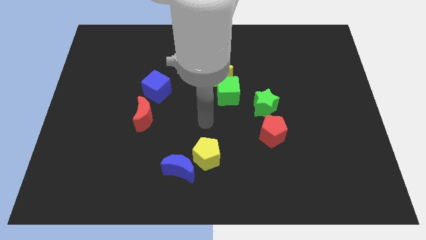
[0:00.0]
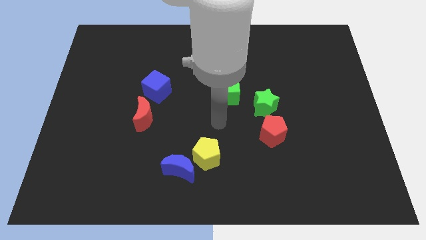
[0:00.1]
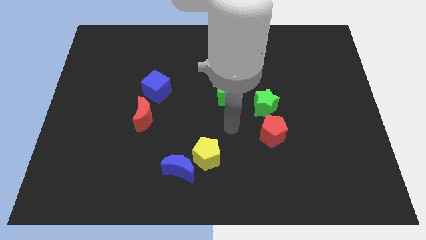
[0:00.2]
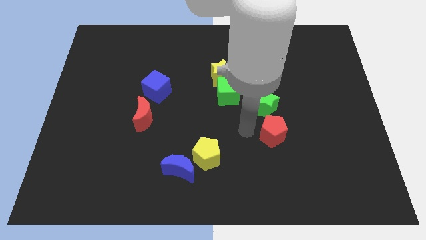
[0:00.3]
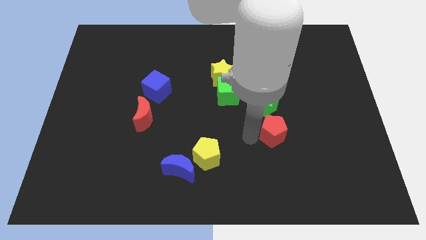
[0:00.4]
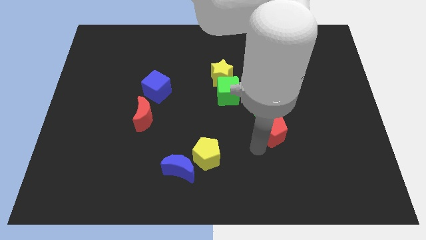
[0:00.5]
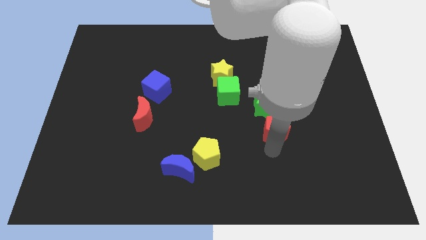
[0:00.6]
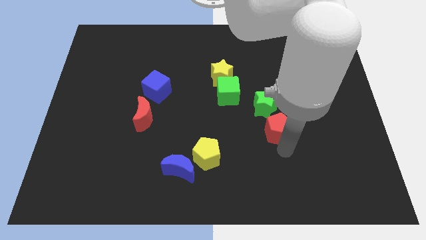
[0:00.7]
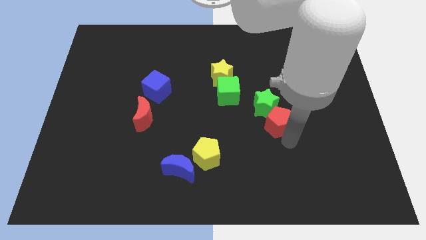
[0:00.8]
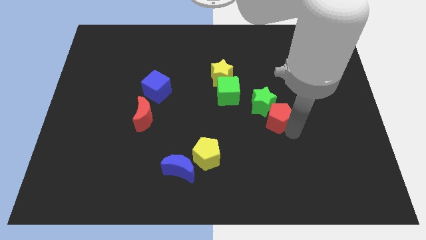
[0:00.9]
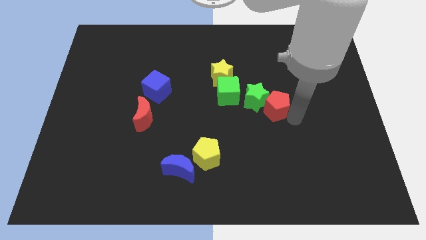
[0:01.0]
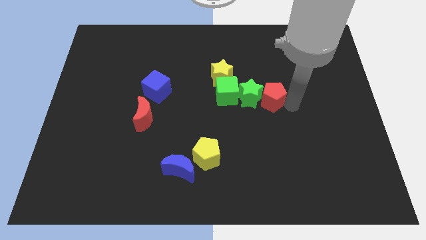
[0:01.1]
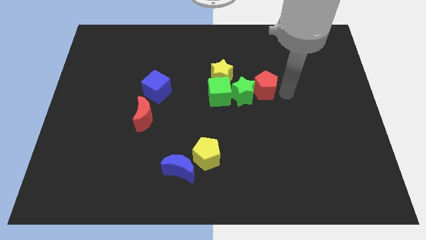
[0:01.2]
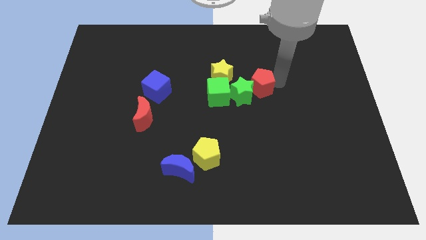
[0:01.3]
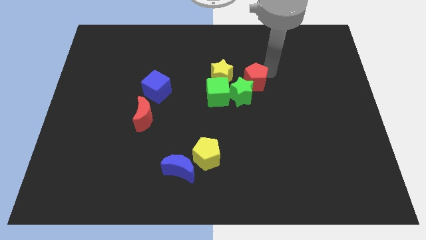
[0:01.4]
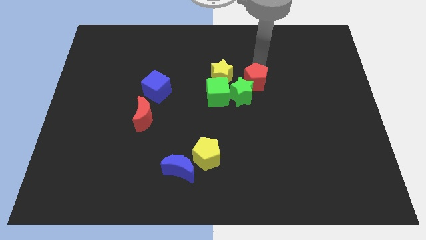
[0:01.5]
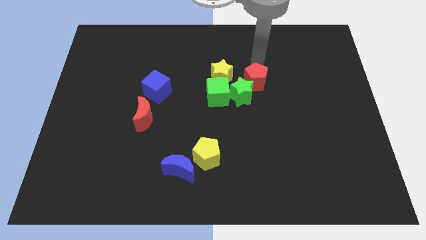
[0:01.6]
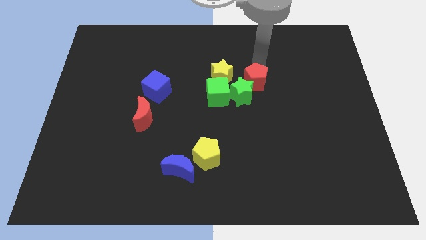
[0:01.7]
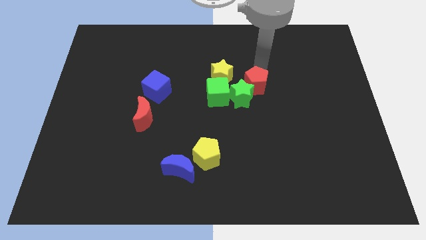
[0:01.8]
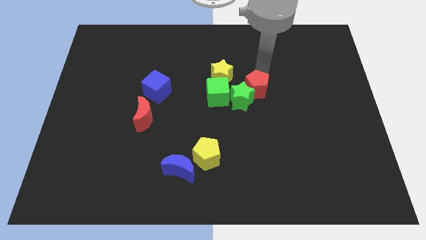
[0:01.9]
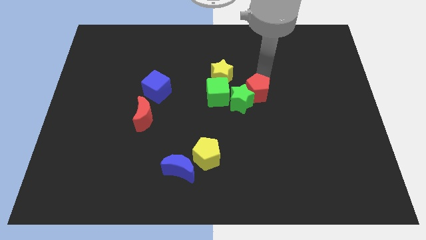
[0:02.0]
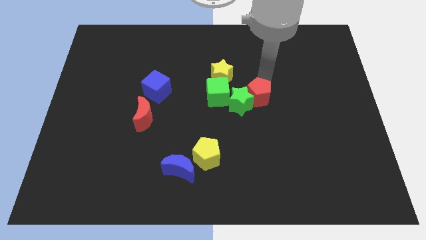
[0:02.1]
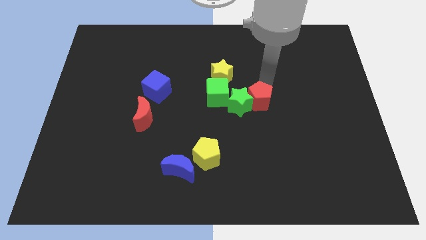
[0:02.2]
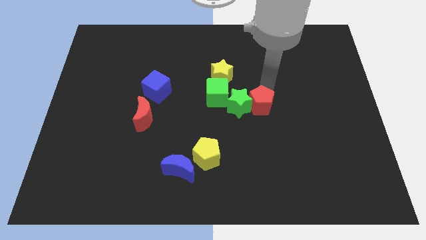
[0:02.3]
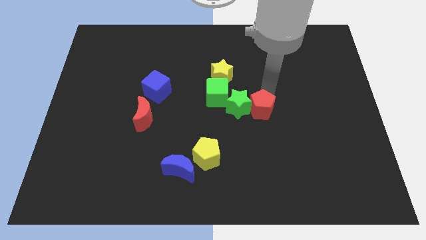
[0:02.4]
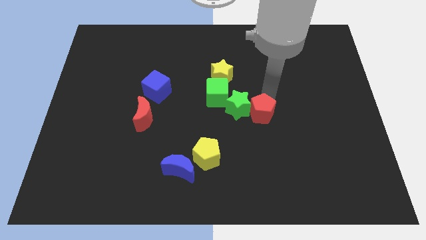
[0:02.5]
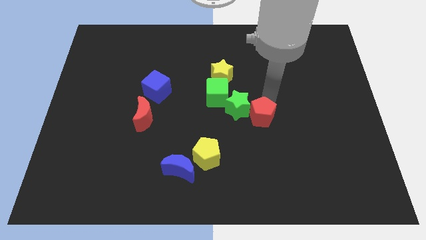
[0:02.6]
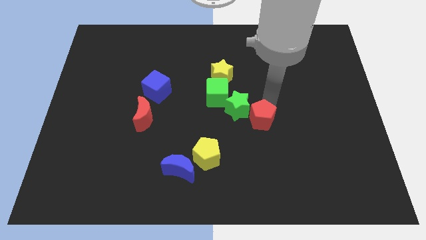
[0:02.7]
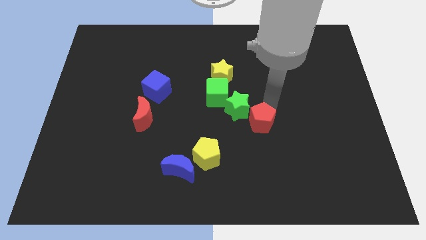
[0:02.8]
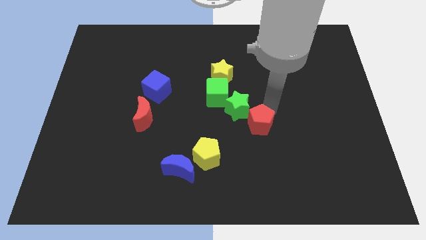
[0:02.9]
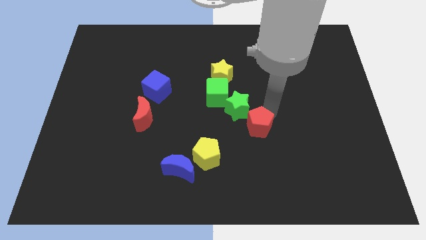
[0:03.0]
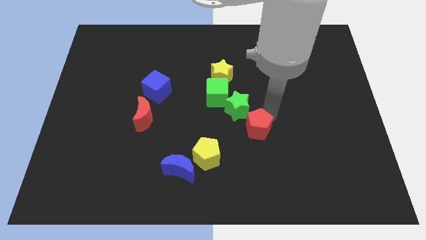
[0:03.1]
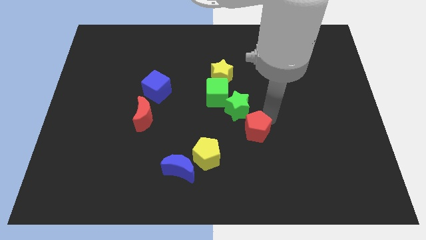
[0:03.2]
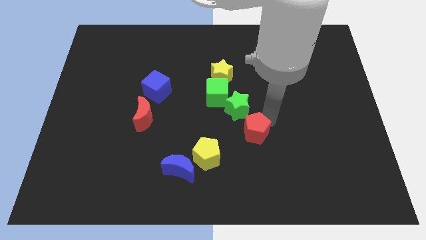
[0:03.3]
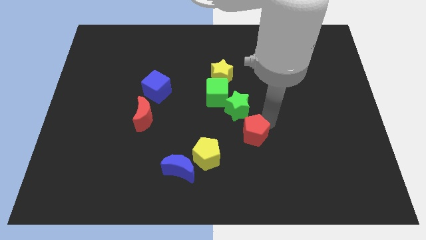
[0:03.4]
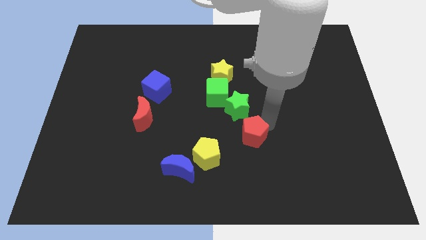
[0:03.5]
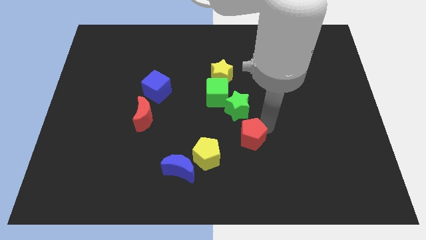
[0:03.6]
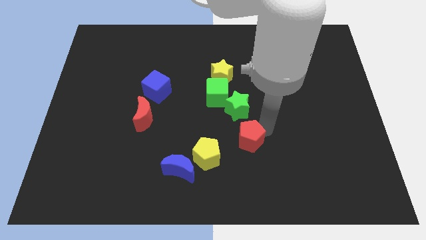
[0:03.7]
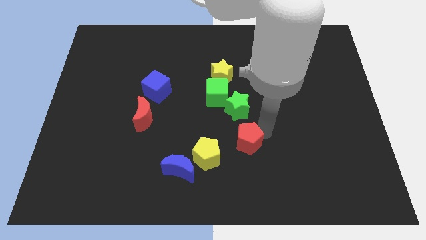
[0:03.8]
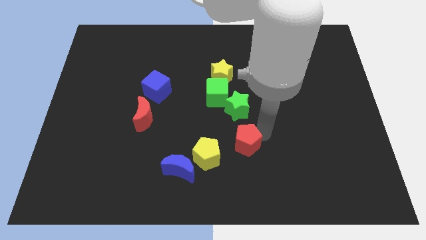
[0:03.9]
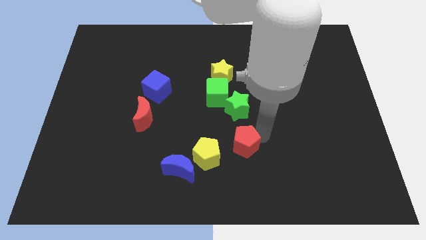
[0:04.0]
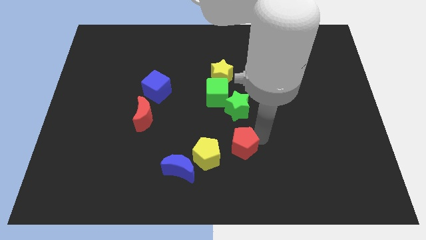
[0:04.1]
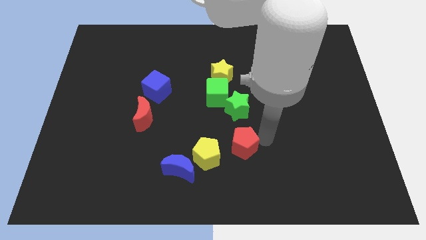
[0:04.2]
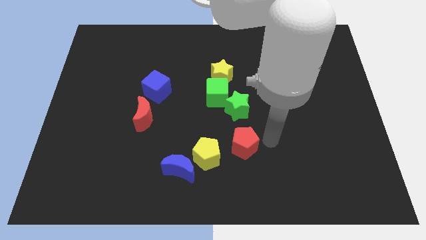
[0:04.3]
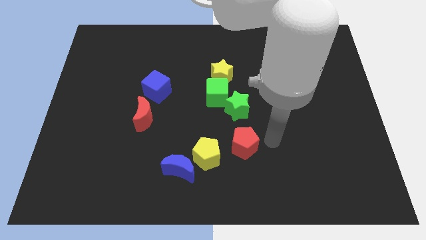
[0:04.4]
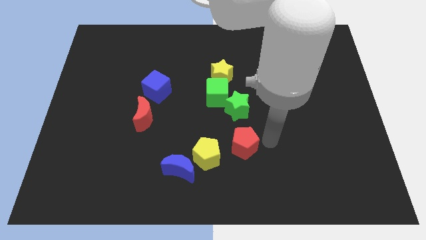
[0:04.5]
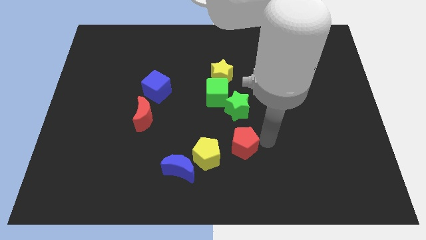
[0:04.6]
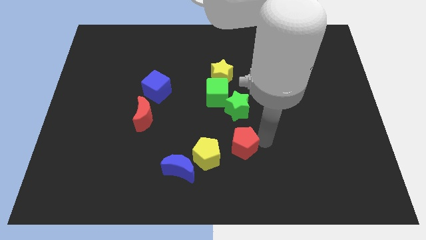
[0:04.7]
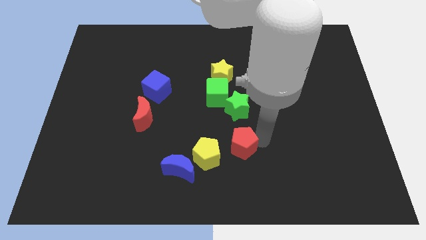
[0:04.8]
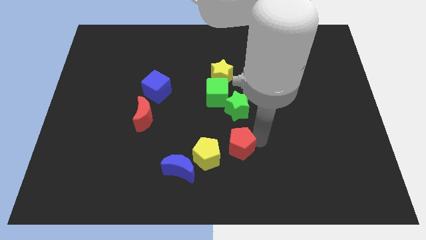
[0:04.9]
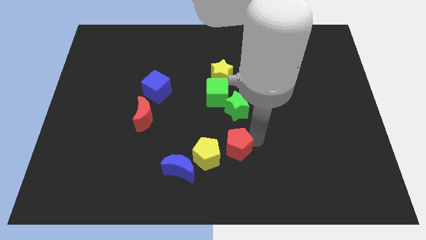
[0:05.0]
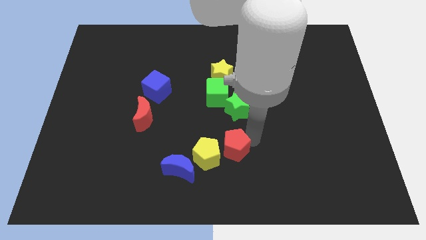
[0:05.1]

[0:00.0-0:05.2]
slide the red pentagon next to the yellow pentagon

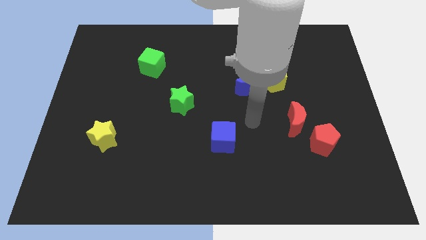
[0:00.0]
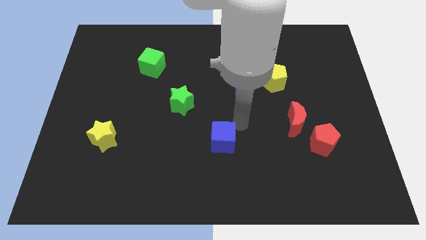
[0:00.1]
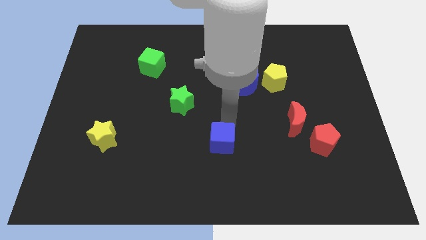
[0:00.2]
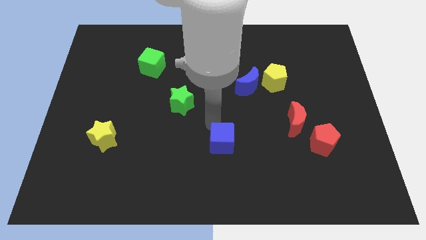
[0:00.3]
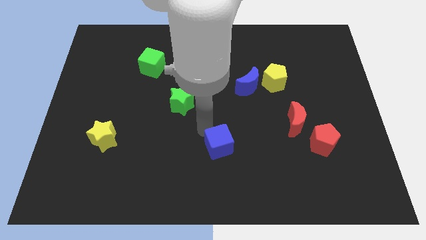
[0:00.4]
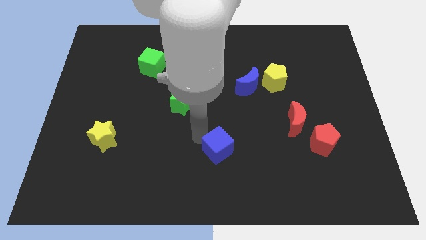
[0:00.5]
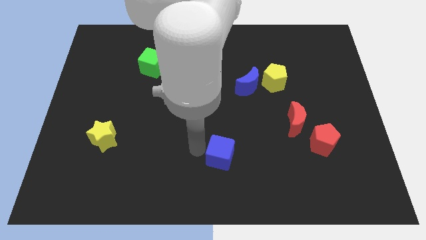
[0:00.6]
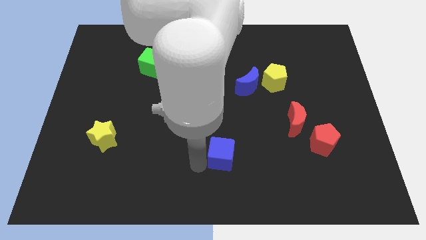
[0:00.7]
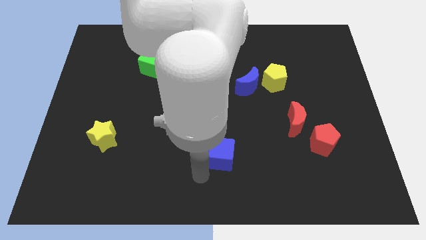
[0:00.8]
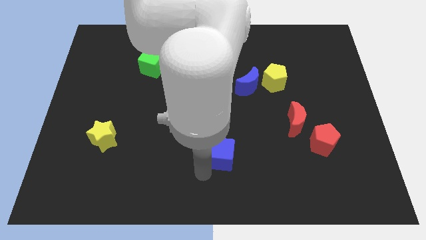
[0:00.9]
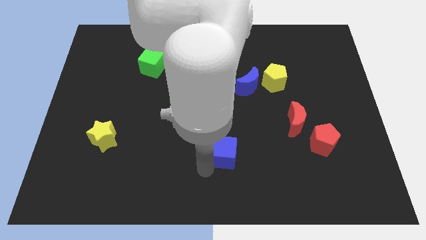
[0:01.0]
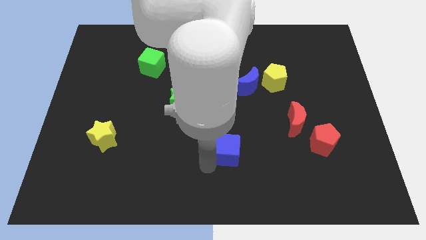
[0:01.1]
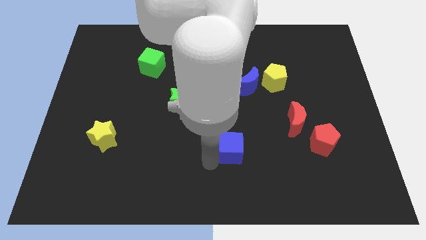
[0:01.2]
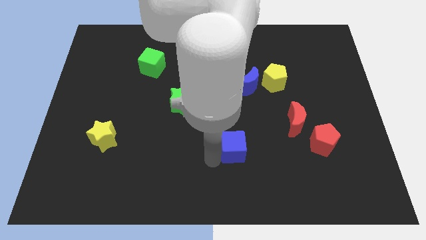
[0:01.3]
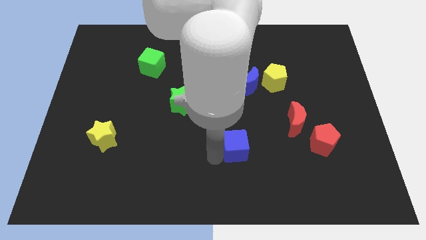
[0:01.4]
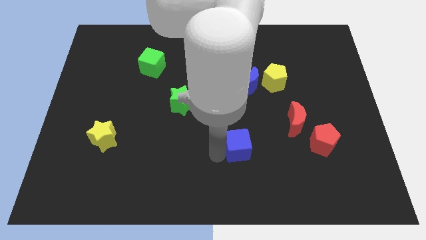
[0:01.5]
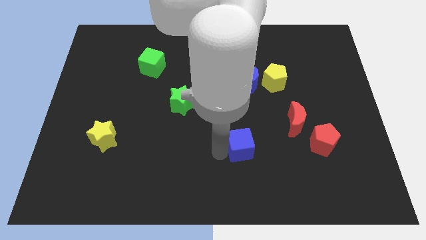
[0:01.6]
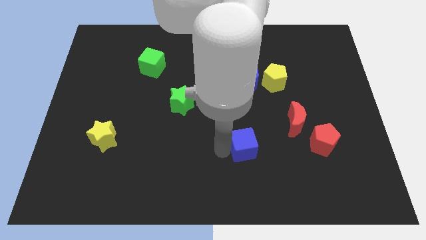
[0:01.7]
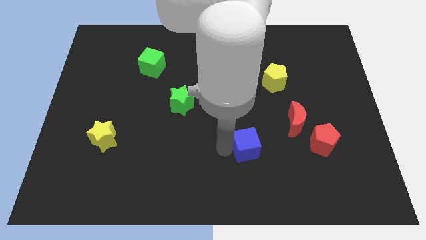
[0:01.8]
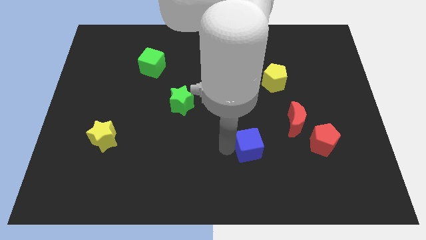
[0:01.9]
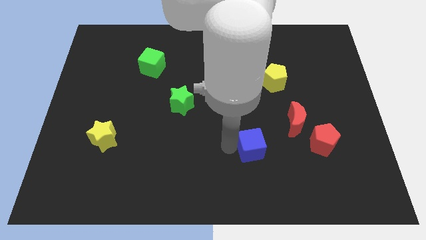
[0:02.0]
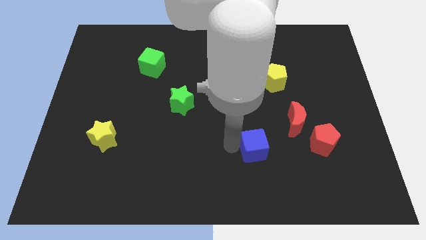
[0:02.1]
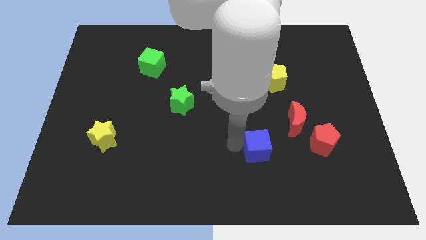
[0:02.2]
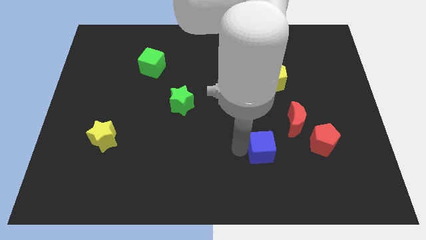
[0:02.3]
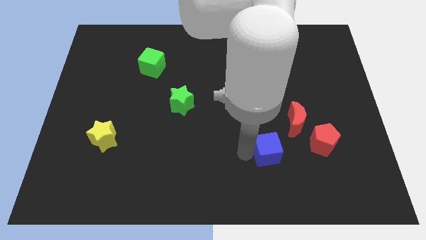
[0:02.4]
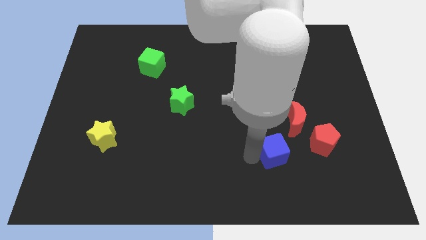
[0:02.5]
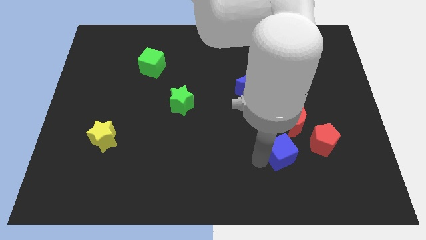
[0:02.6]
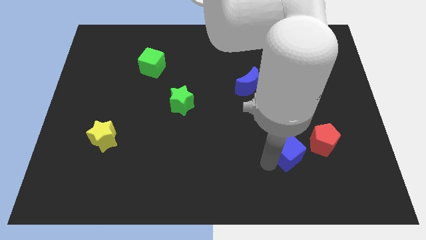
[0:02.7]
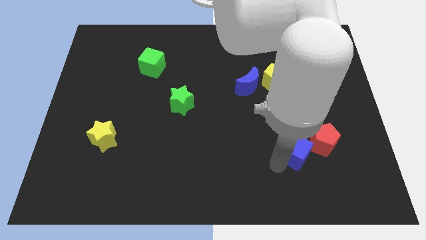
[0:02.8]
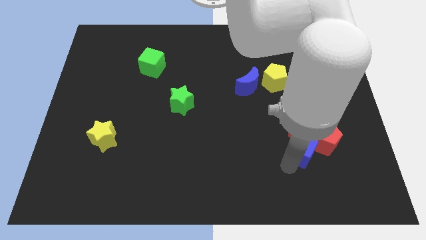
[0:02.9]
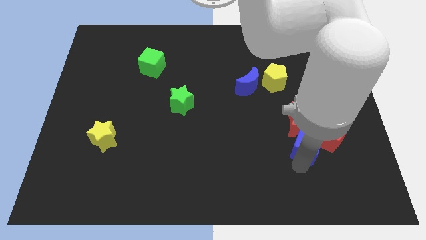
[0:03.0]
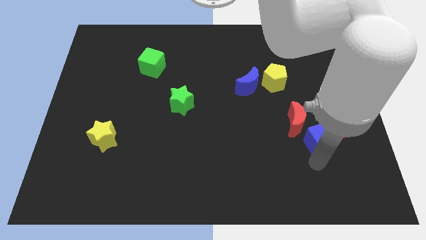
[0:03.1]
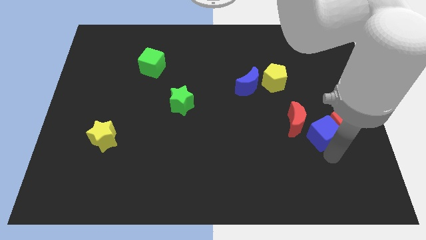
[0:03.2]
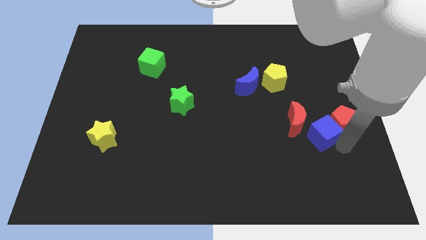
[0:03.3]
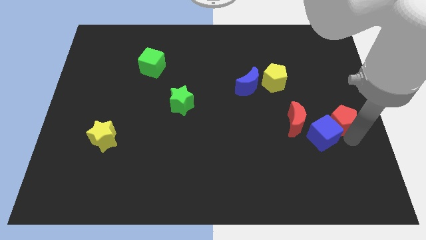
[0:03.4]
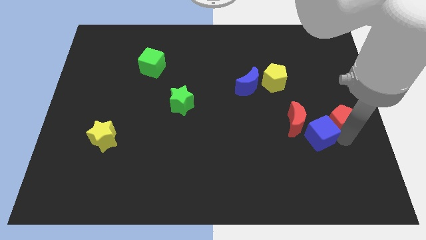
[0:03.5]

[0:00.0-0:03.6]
put the blue cube to the red moon
